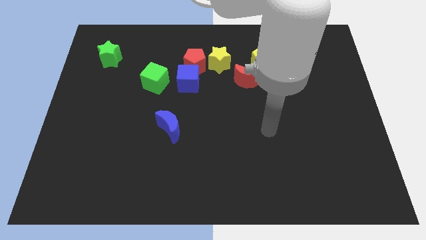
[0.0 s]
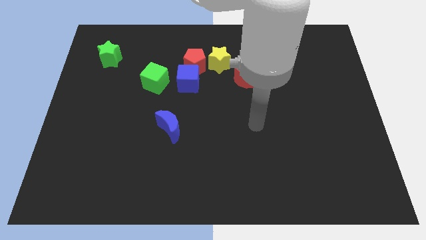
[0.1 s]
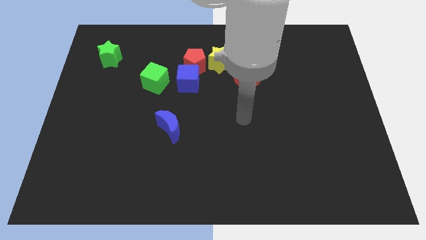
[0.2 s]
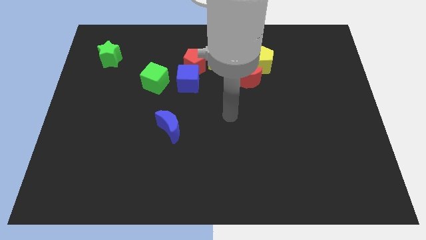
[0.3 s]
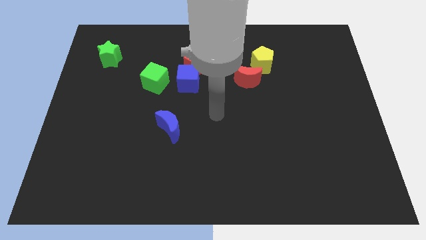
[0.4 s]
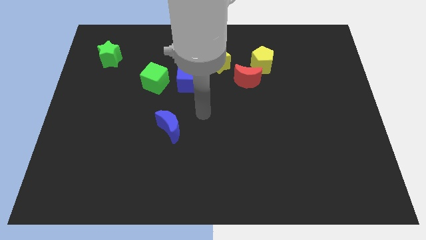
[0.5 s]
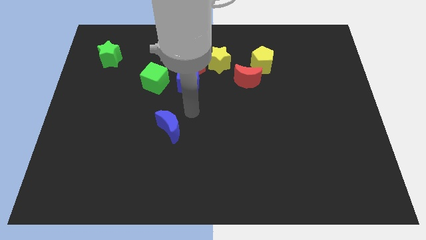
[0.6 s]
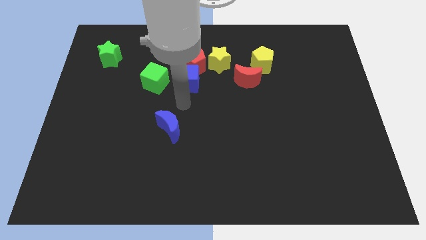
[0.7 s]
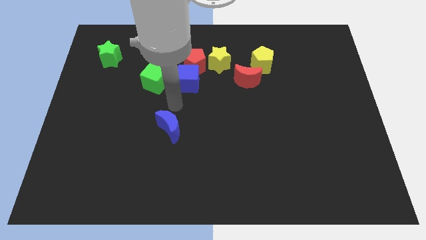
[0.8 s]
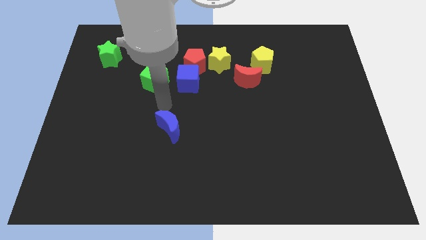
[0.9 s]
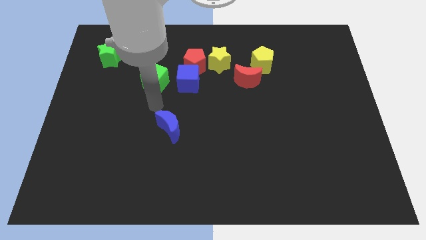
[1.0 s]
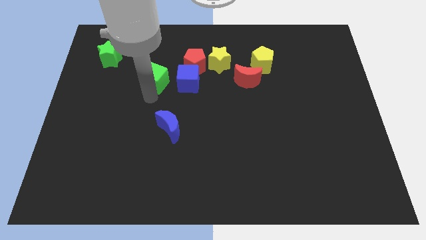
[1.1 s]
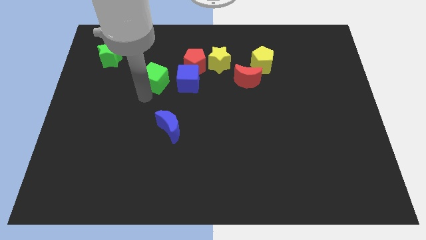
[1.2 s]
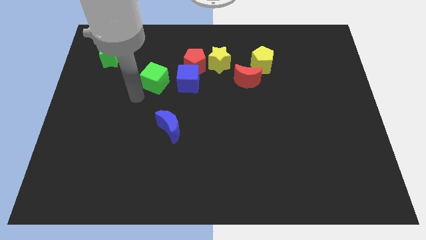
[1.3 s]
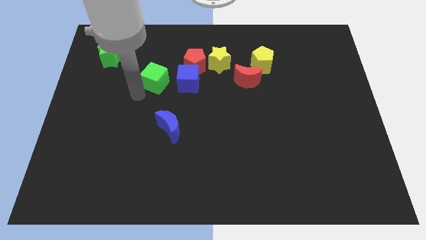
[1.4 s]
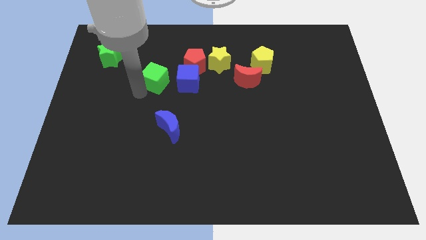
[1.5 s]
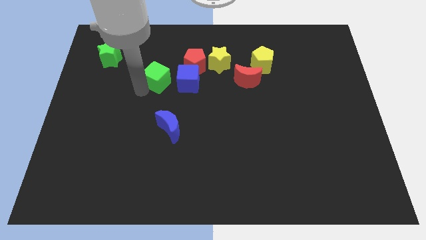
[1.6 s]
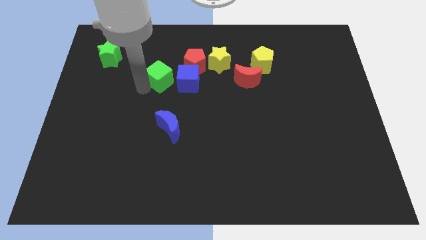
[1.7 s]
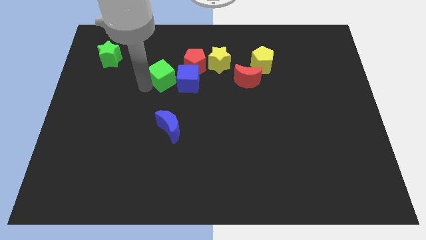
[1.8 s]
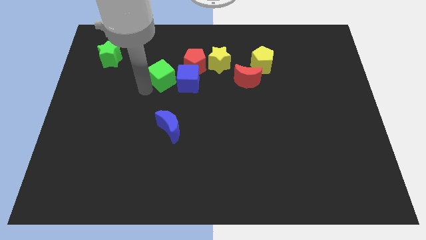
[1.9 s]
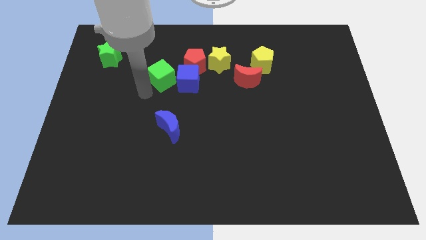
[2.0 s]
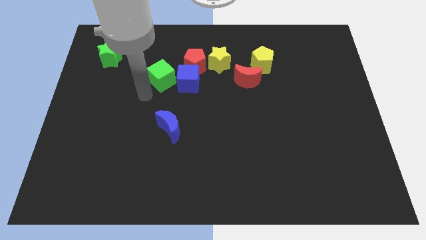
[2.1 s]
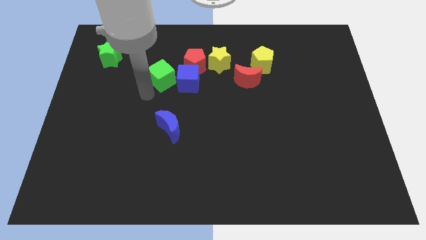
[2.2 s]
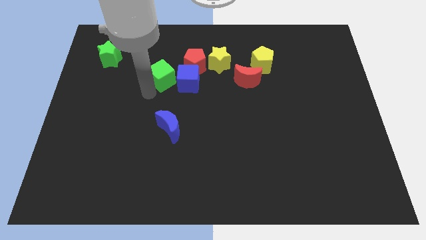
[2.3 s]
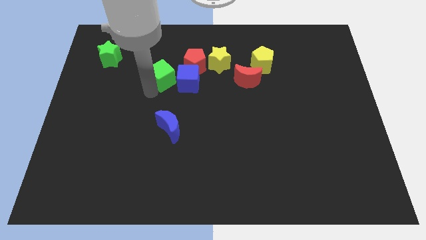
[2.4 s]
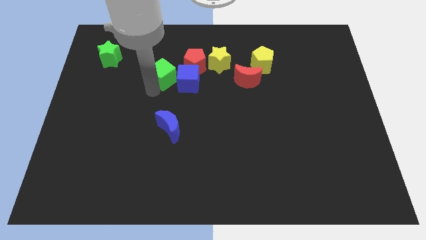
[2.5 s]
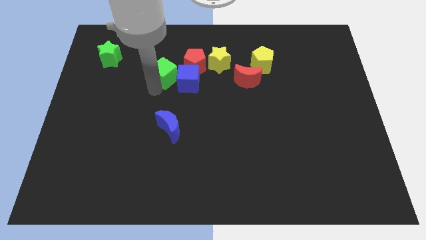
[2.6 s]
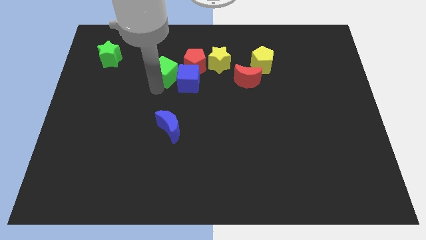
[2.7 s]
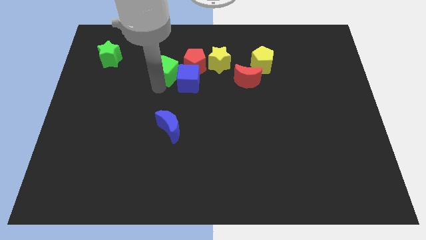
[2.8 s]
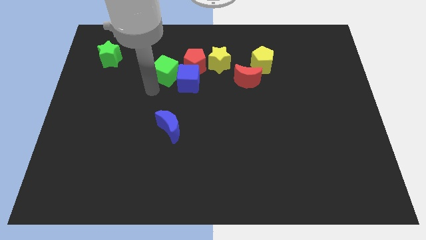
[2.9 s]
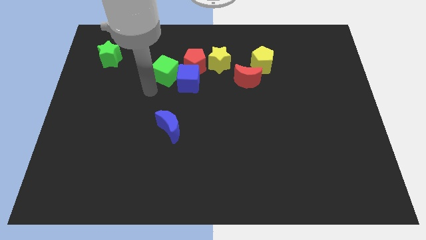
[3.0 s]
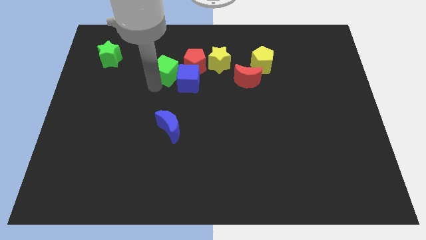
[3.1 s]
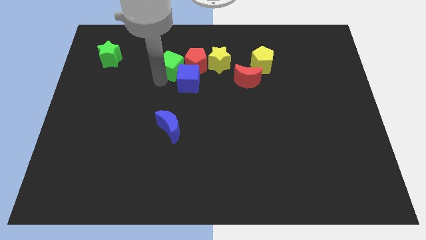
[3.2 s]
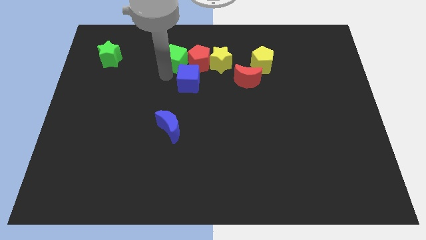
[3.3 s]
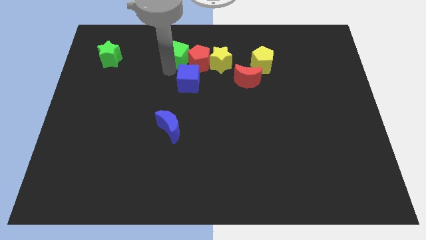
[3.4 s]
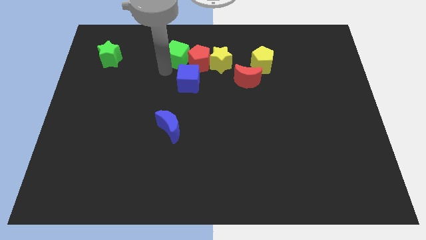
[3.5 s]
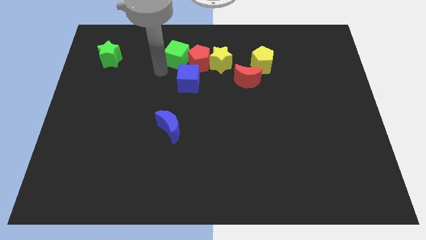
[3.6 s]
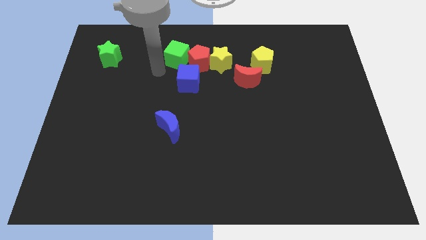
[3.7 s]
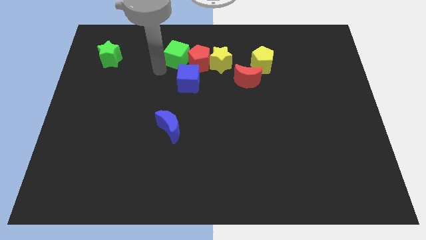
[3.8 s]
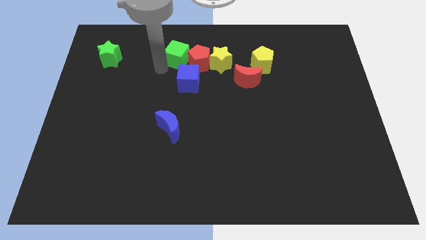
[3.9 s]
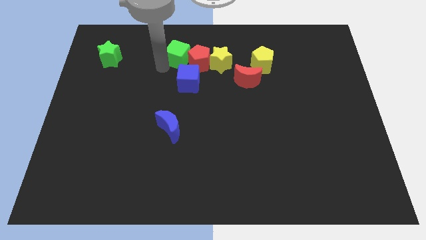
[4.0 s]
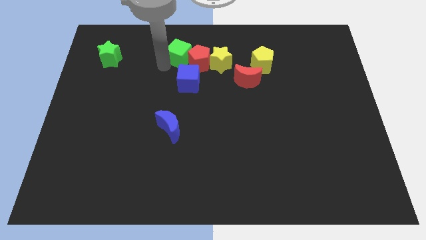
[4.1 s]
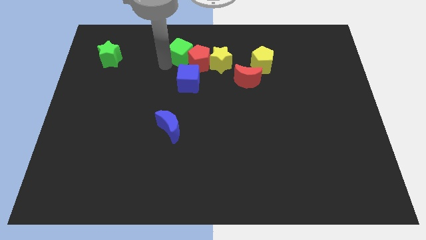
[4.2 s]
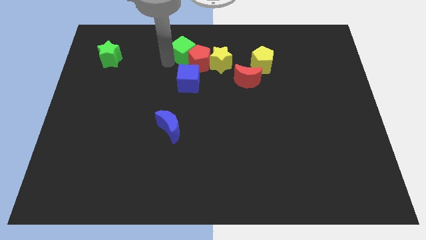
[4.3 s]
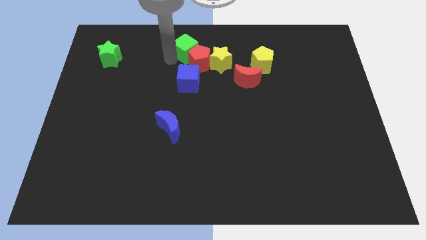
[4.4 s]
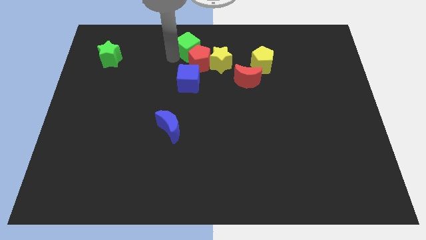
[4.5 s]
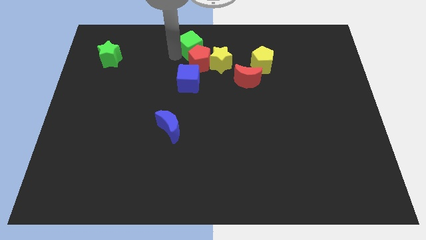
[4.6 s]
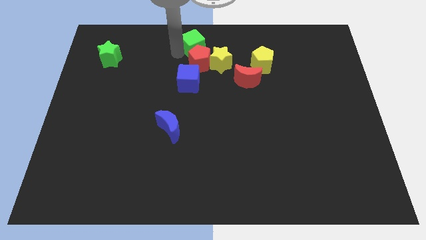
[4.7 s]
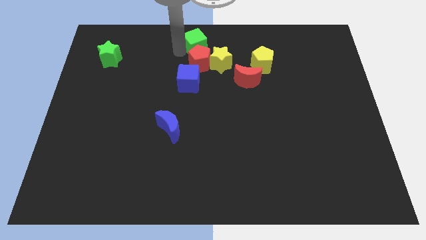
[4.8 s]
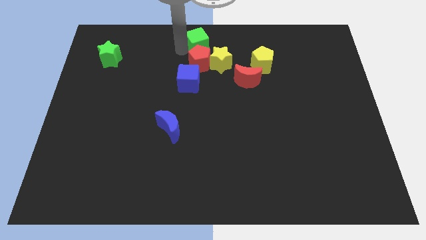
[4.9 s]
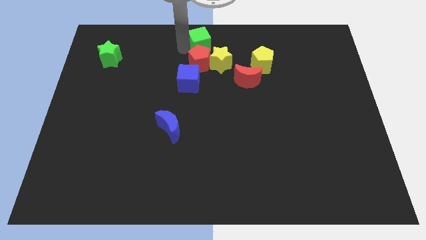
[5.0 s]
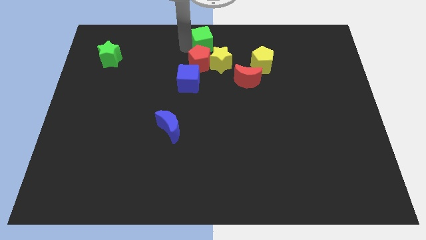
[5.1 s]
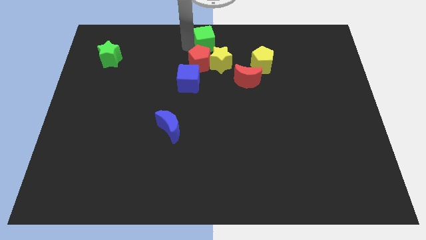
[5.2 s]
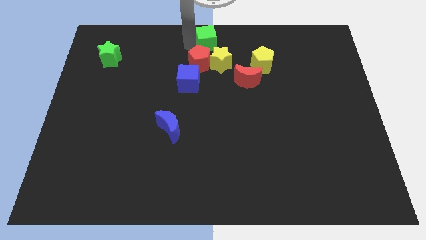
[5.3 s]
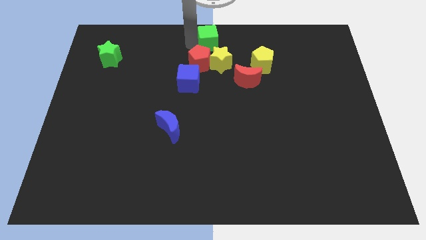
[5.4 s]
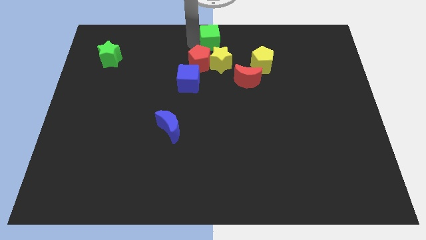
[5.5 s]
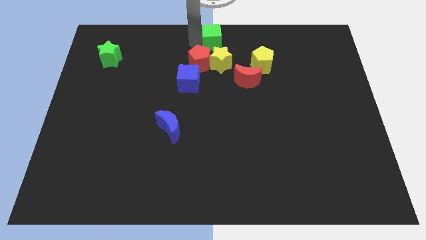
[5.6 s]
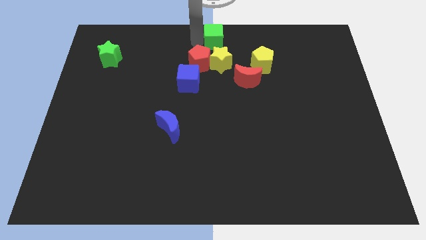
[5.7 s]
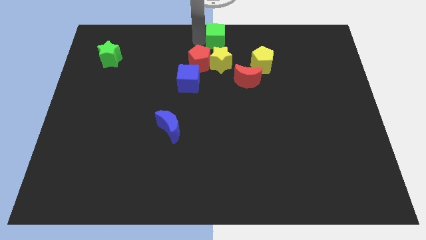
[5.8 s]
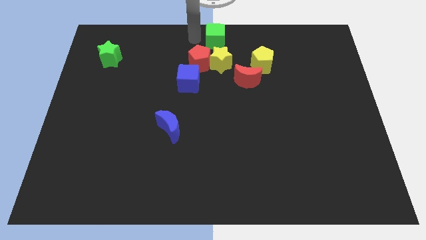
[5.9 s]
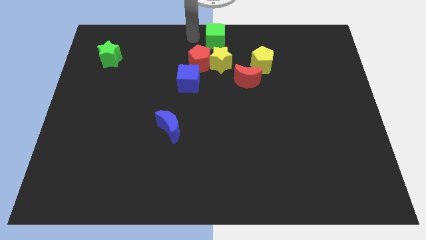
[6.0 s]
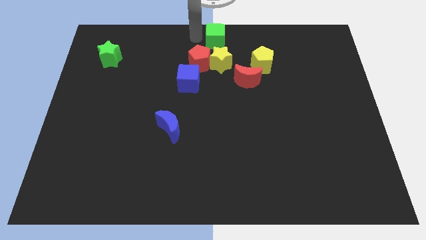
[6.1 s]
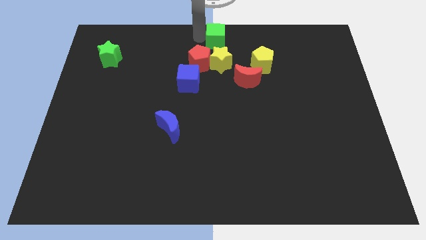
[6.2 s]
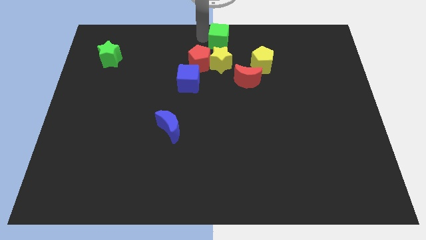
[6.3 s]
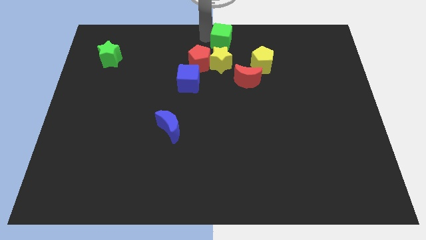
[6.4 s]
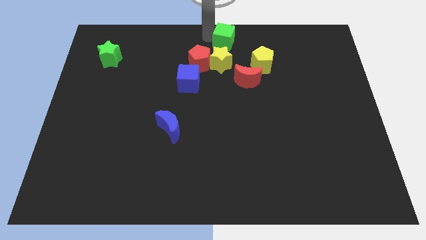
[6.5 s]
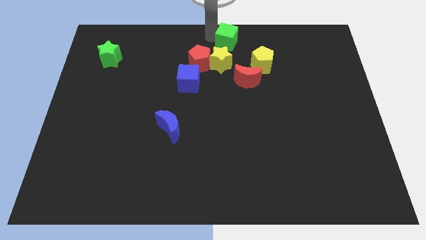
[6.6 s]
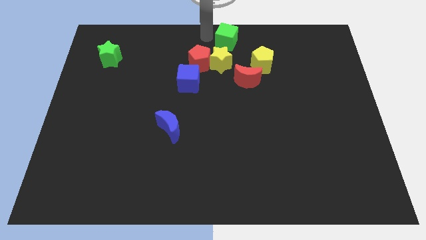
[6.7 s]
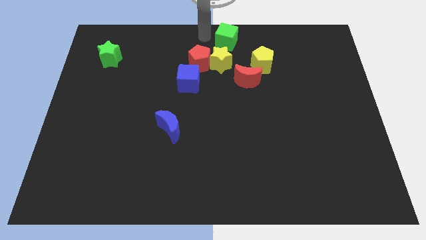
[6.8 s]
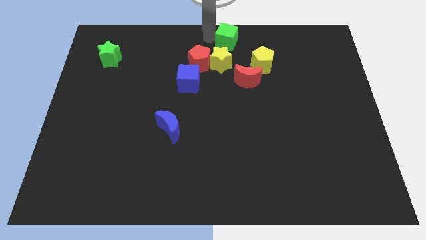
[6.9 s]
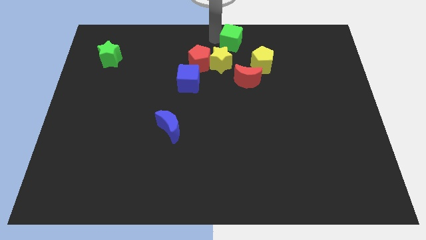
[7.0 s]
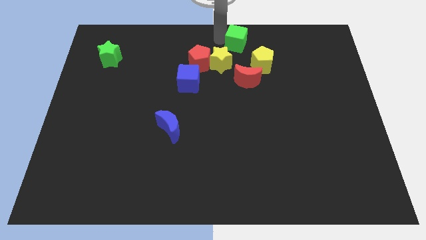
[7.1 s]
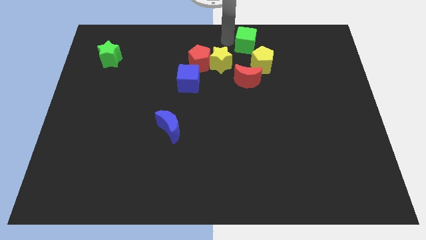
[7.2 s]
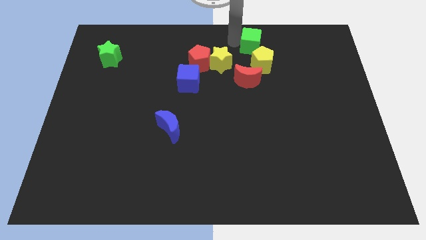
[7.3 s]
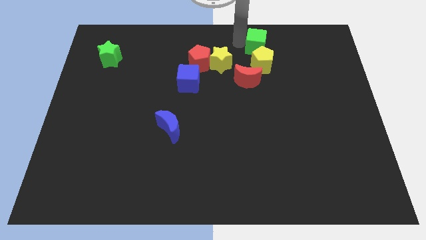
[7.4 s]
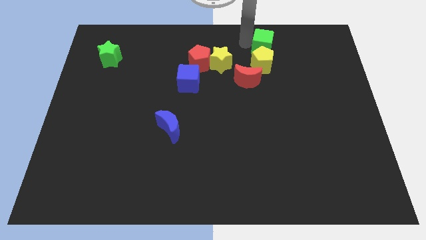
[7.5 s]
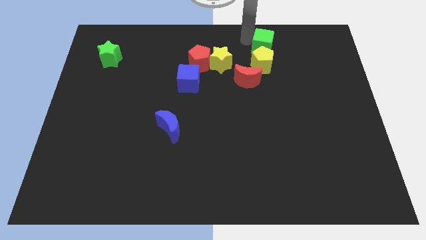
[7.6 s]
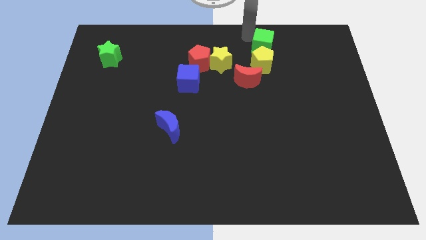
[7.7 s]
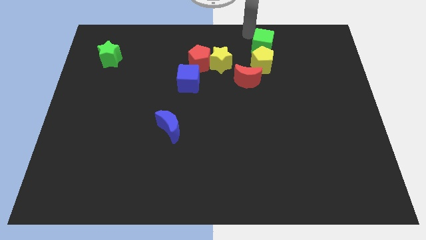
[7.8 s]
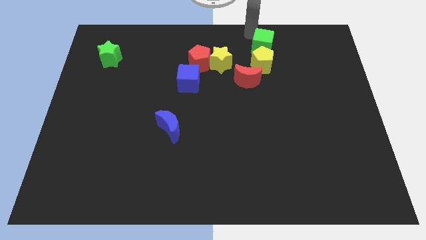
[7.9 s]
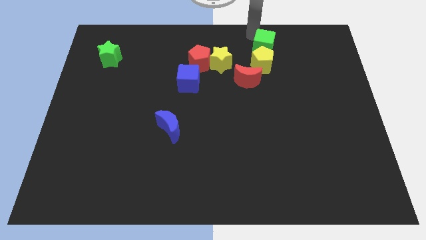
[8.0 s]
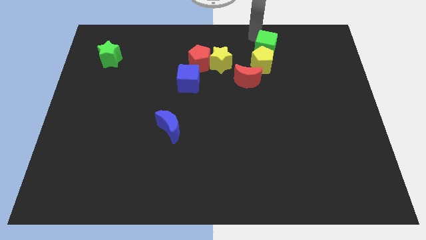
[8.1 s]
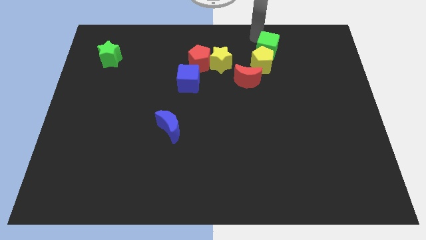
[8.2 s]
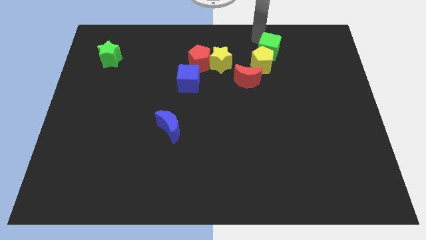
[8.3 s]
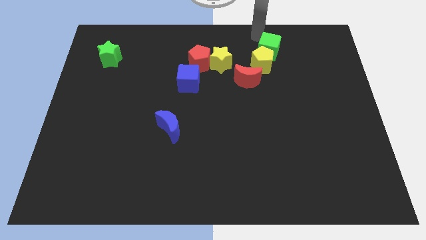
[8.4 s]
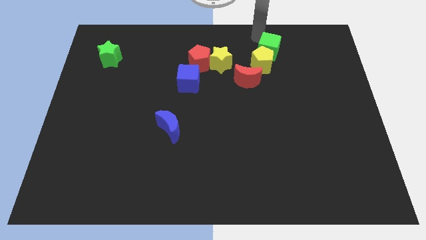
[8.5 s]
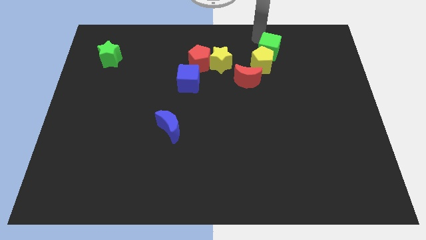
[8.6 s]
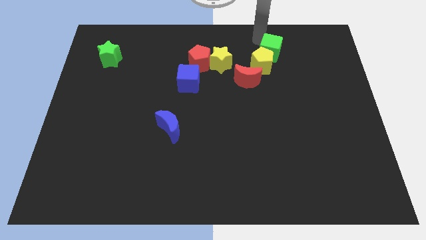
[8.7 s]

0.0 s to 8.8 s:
push the green cube to the top right side of the red moon
